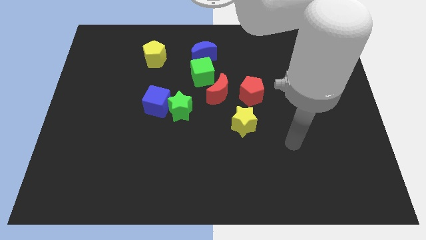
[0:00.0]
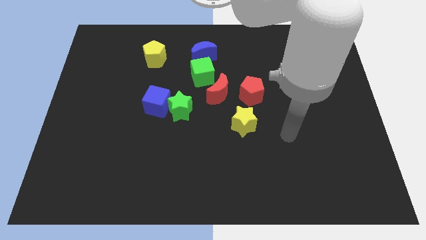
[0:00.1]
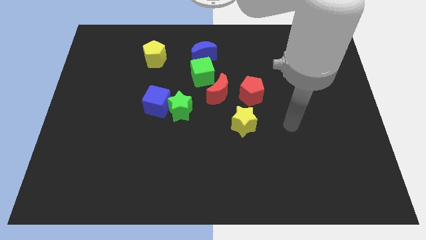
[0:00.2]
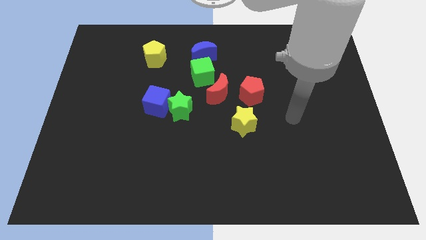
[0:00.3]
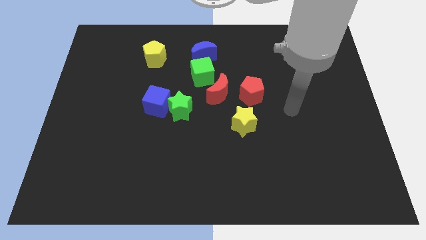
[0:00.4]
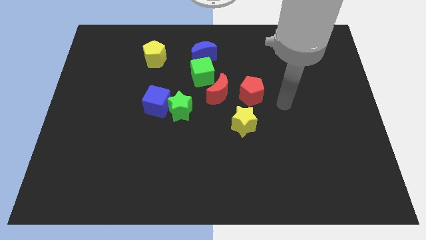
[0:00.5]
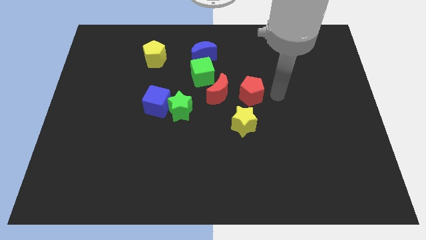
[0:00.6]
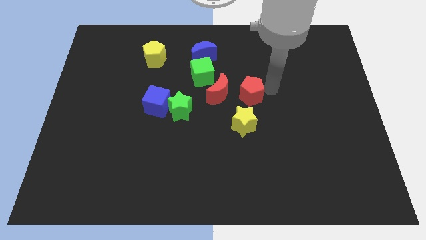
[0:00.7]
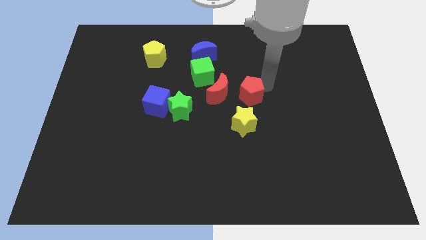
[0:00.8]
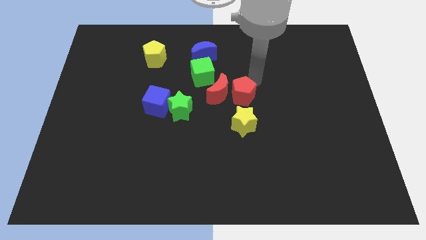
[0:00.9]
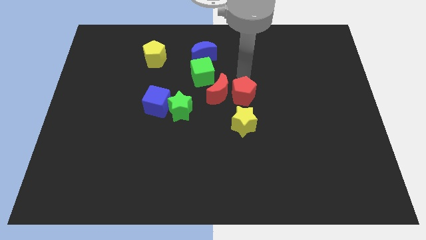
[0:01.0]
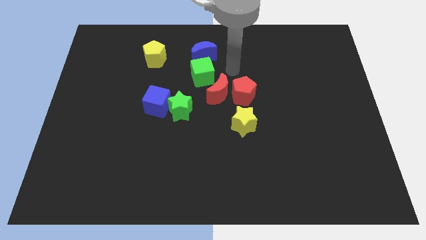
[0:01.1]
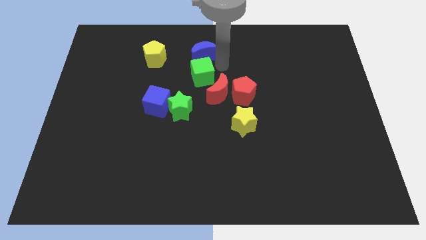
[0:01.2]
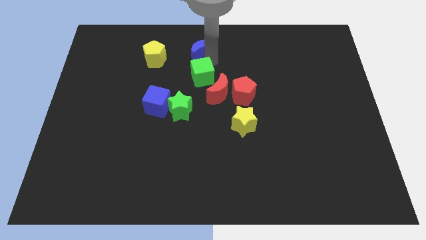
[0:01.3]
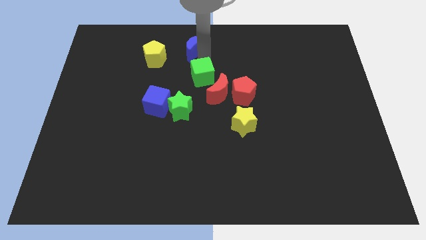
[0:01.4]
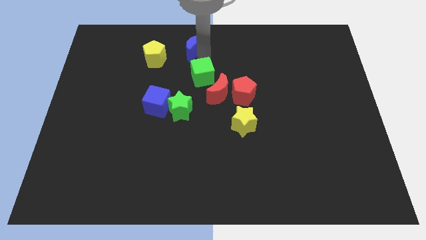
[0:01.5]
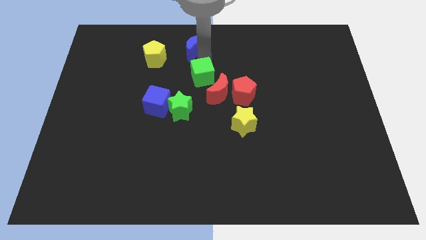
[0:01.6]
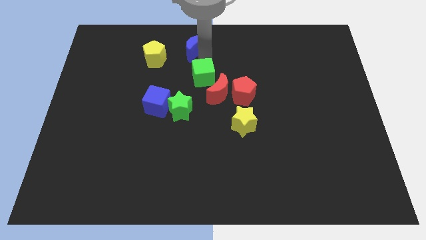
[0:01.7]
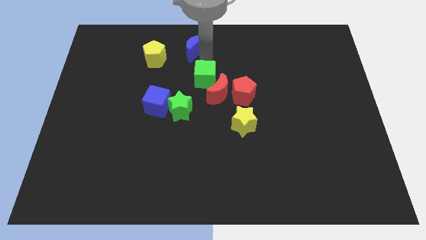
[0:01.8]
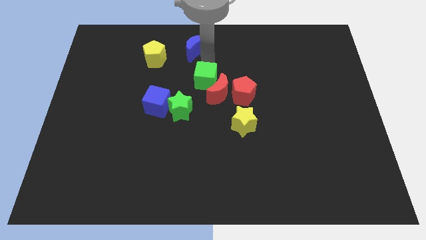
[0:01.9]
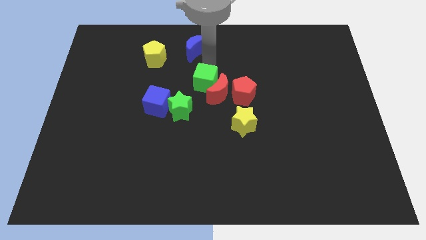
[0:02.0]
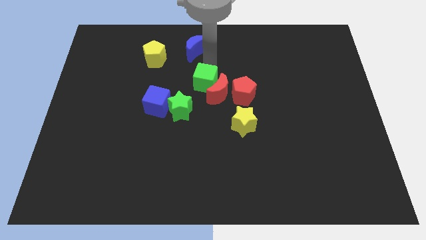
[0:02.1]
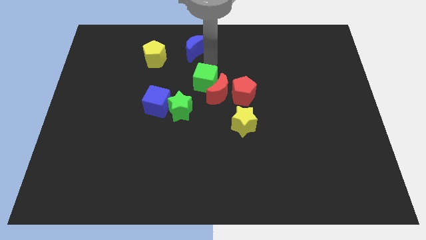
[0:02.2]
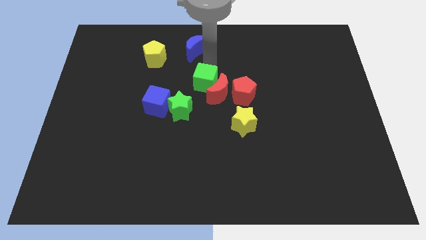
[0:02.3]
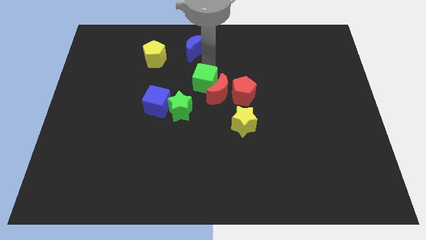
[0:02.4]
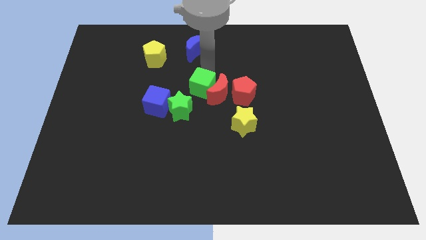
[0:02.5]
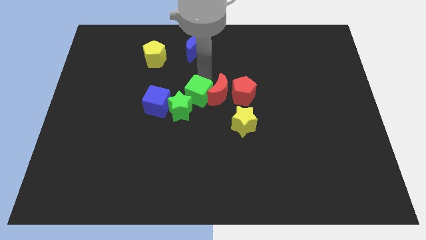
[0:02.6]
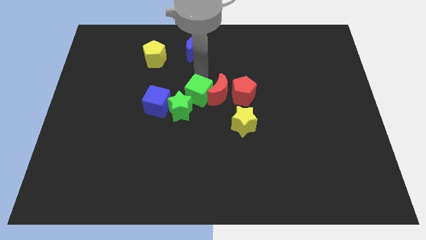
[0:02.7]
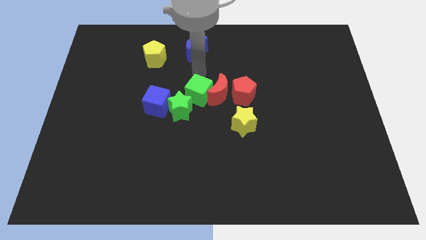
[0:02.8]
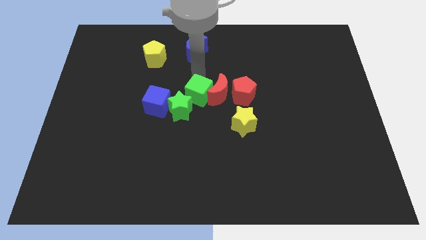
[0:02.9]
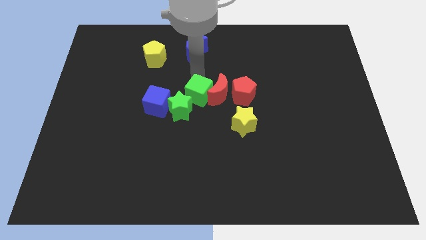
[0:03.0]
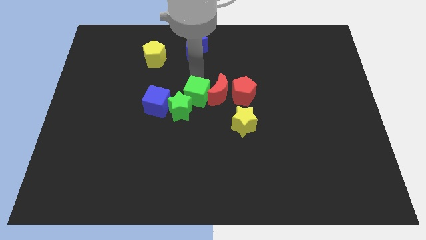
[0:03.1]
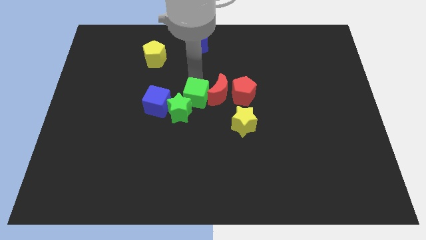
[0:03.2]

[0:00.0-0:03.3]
slide the green cube downwards a bit

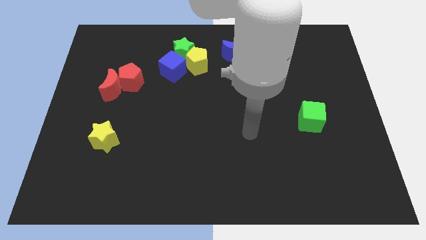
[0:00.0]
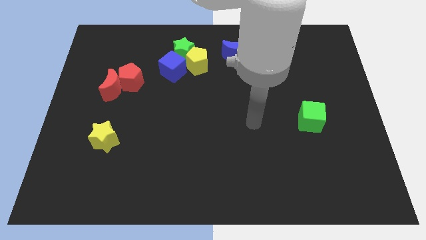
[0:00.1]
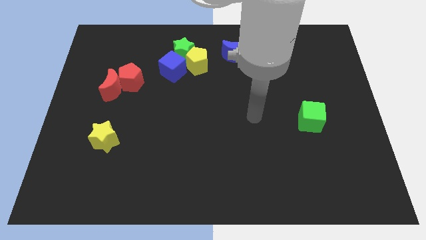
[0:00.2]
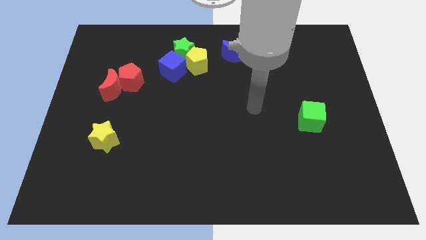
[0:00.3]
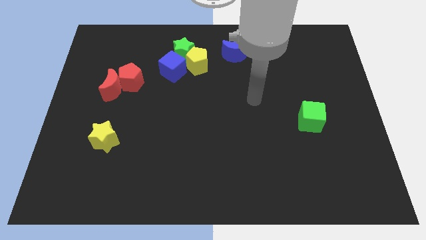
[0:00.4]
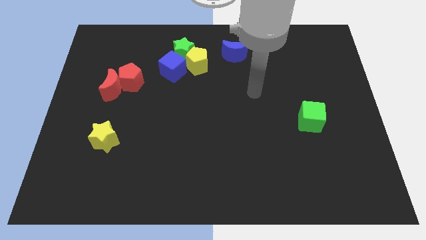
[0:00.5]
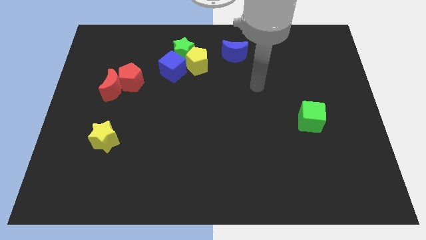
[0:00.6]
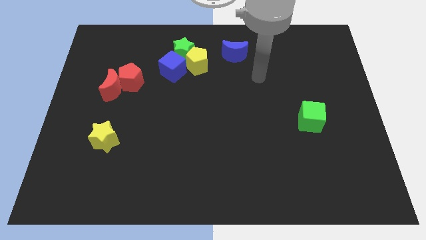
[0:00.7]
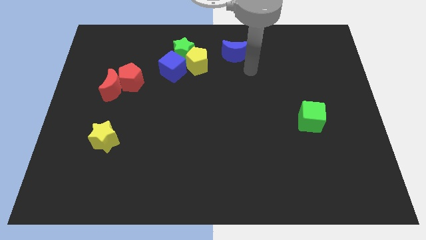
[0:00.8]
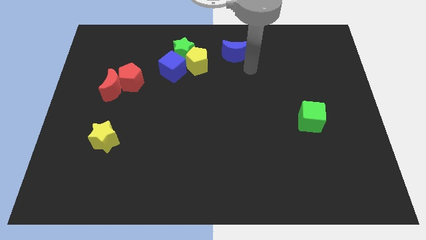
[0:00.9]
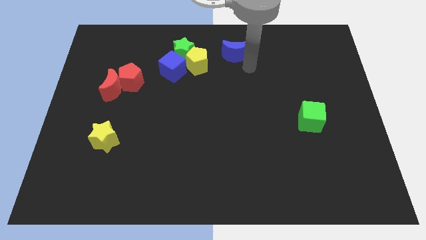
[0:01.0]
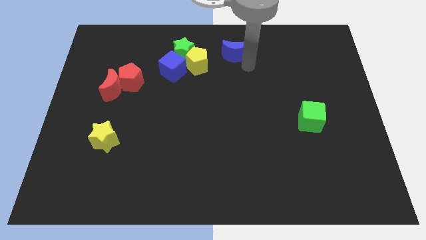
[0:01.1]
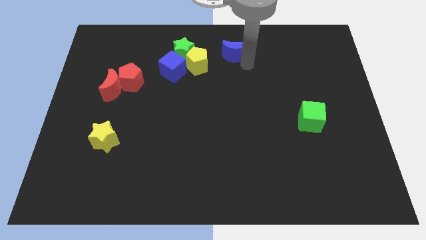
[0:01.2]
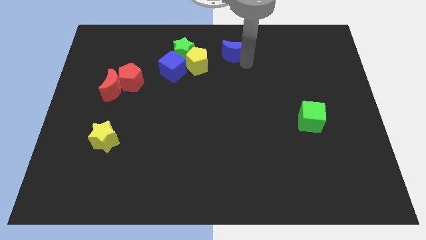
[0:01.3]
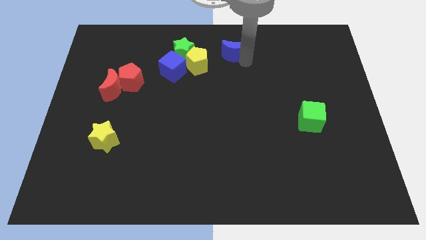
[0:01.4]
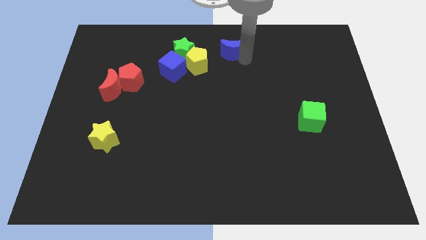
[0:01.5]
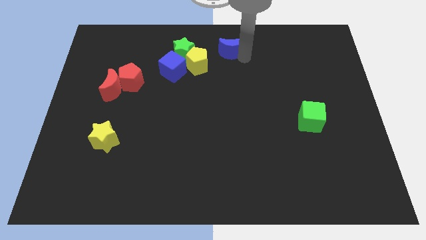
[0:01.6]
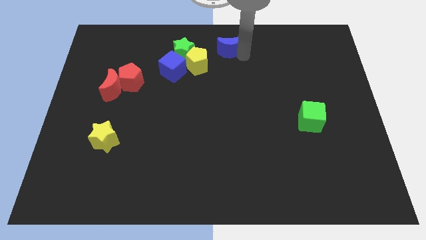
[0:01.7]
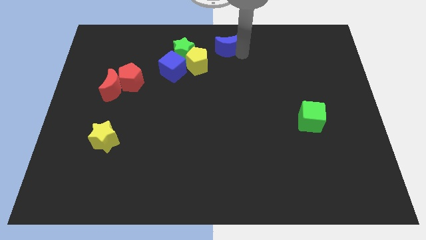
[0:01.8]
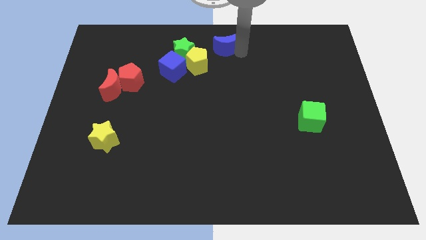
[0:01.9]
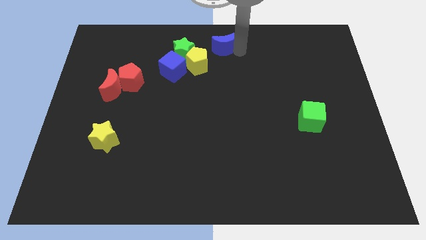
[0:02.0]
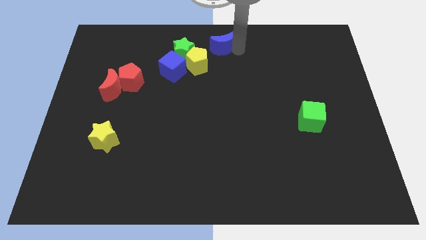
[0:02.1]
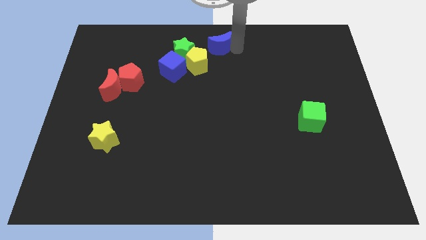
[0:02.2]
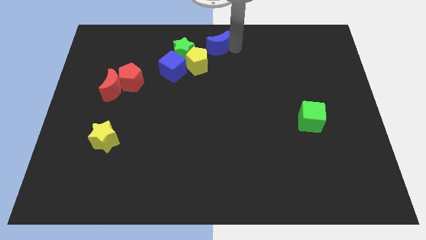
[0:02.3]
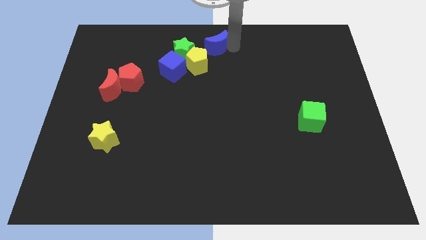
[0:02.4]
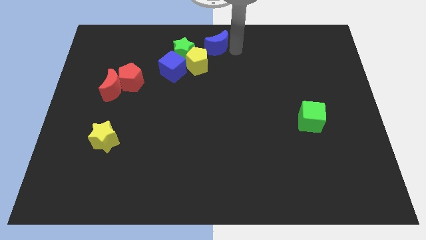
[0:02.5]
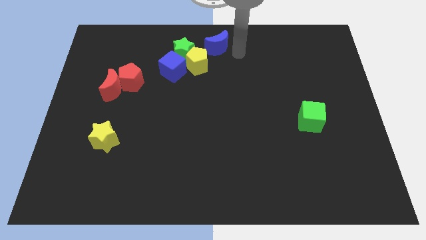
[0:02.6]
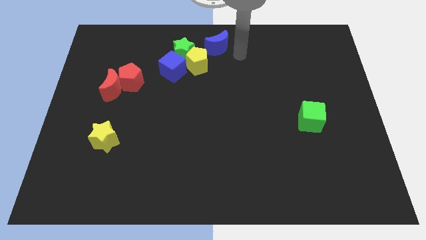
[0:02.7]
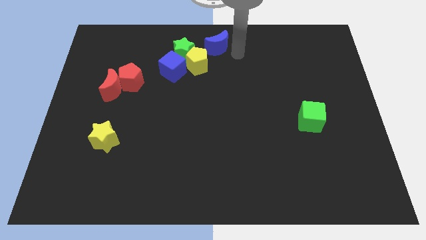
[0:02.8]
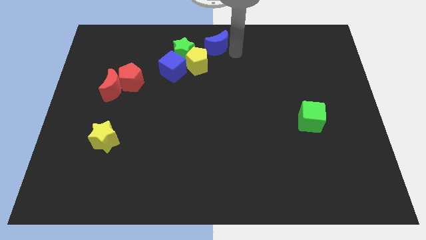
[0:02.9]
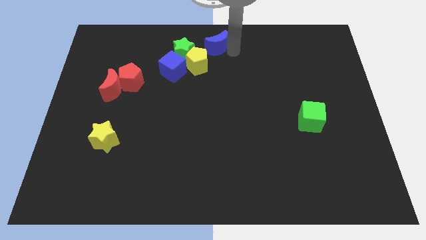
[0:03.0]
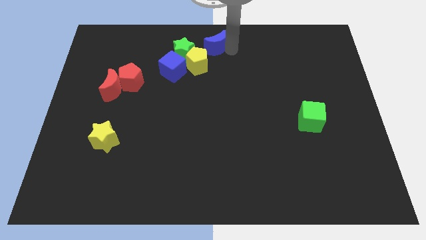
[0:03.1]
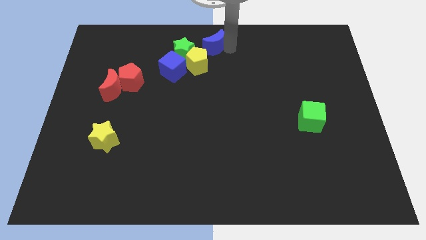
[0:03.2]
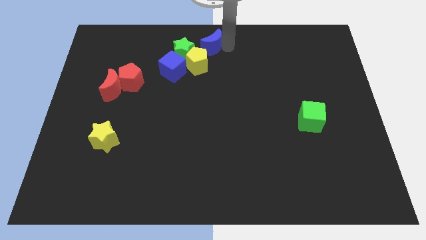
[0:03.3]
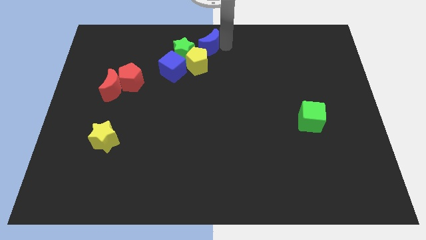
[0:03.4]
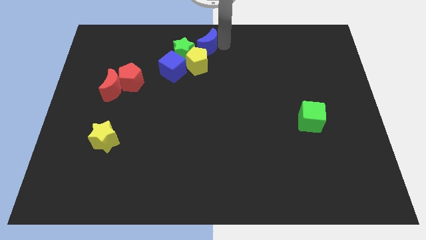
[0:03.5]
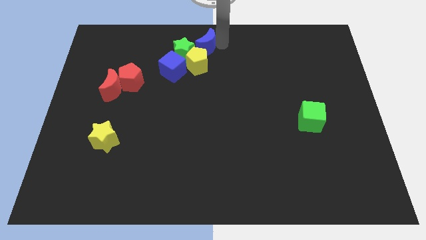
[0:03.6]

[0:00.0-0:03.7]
slide the blue moon left a little bit

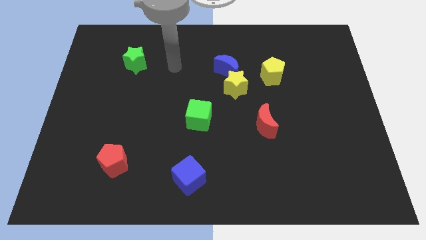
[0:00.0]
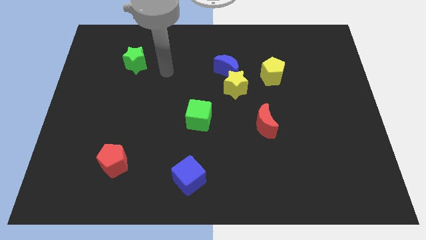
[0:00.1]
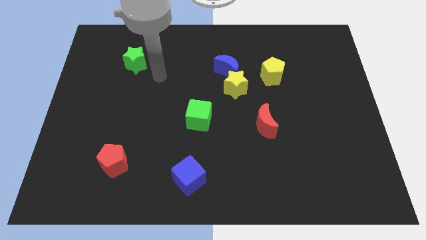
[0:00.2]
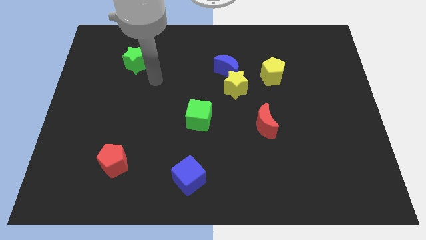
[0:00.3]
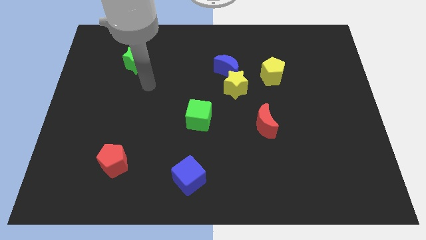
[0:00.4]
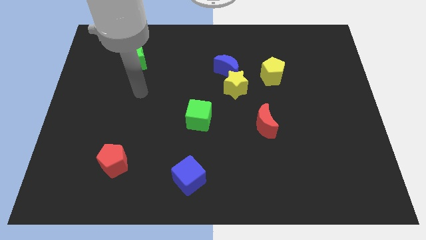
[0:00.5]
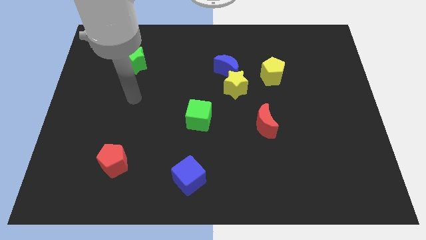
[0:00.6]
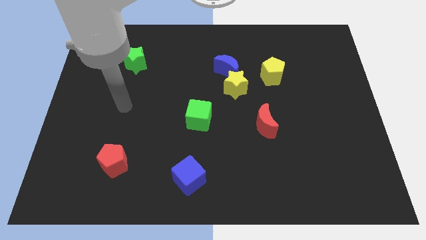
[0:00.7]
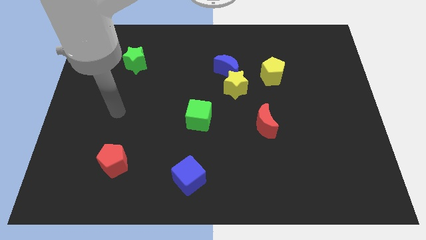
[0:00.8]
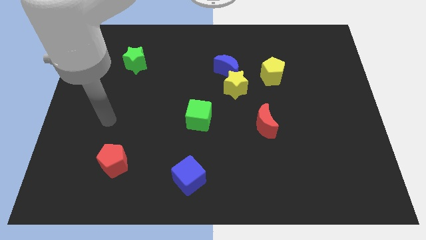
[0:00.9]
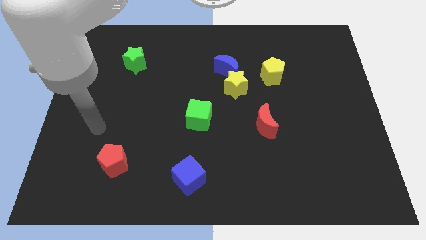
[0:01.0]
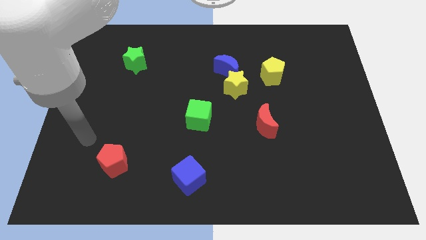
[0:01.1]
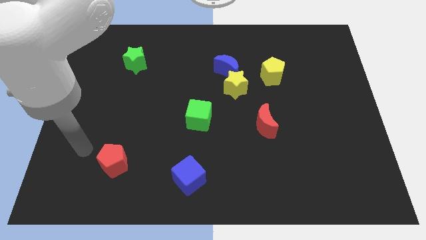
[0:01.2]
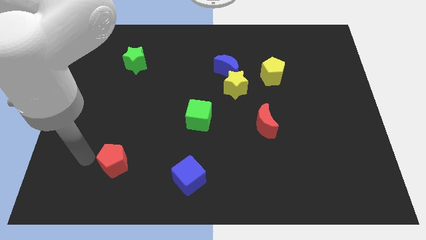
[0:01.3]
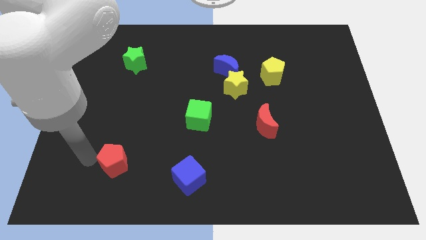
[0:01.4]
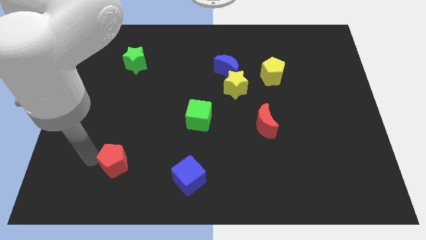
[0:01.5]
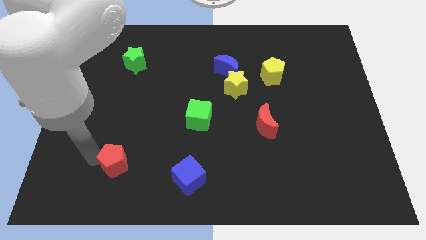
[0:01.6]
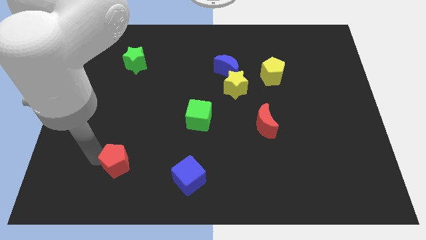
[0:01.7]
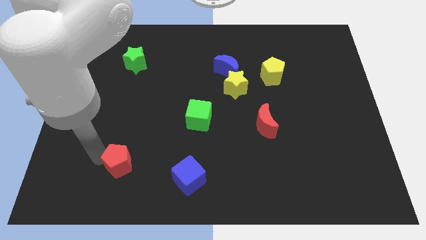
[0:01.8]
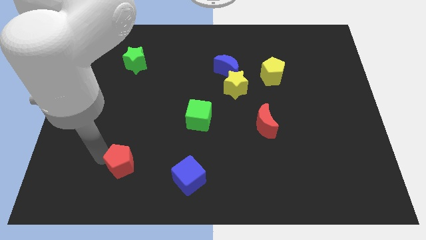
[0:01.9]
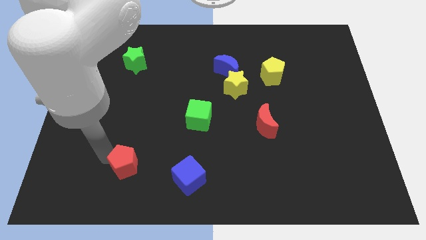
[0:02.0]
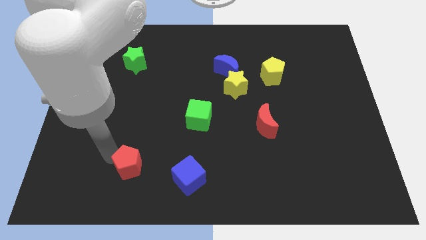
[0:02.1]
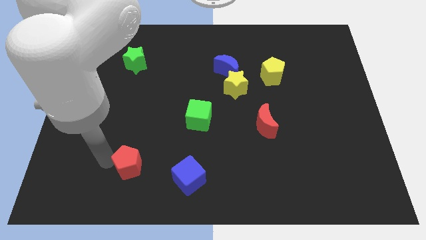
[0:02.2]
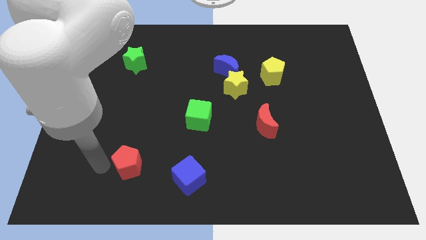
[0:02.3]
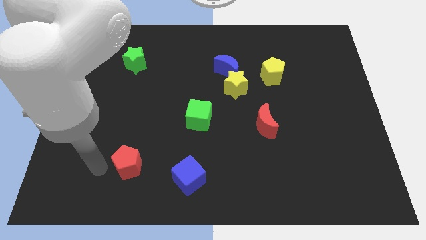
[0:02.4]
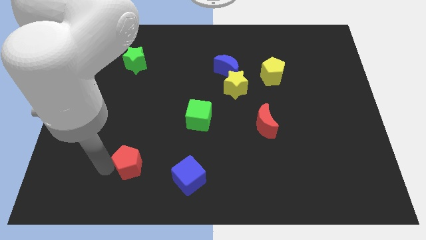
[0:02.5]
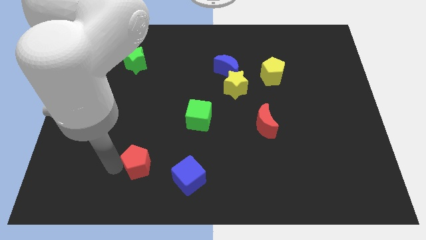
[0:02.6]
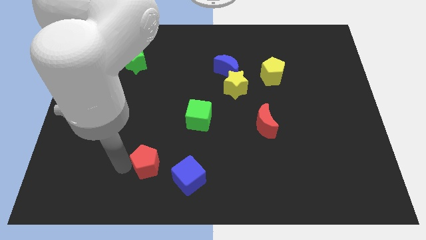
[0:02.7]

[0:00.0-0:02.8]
push the red pentagon right a little bit
